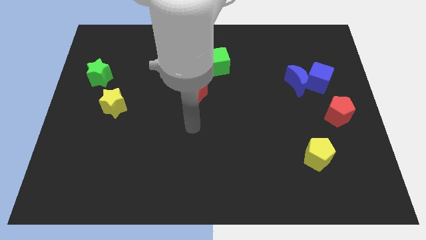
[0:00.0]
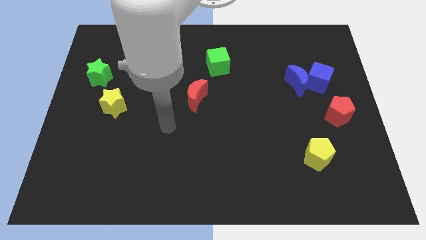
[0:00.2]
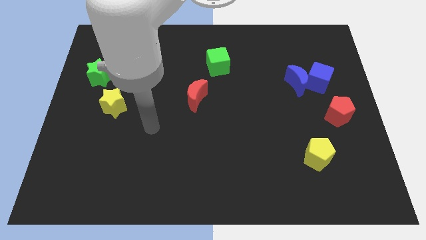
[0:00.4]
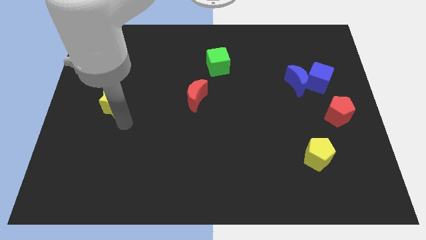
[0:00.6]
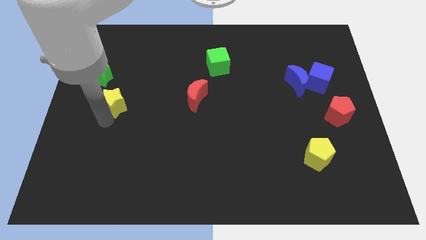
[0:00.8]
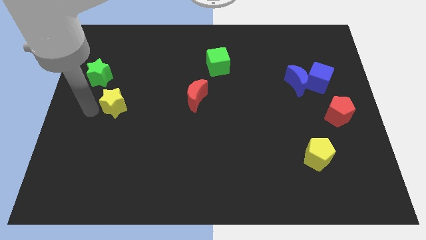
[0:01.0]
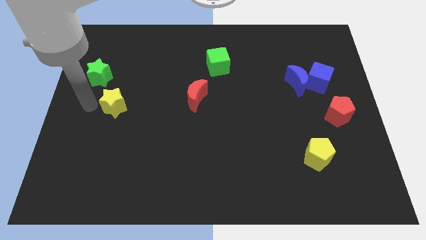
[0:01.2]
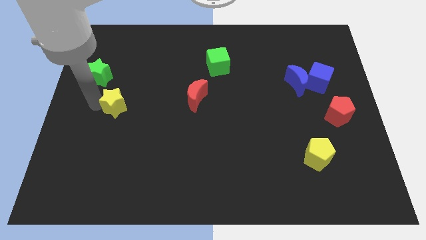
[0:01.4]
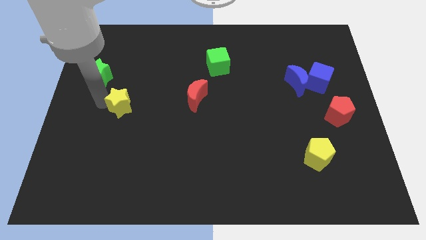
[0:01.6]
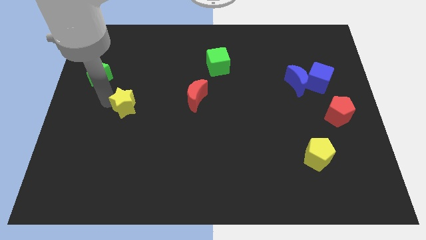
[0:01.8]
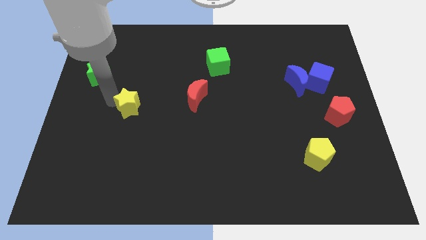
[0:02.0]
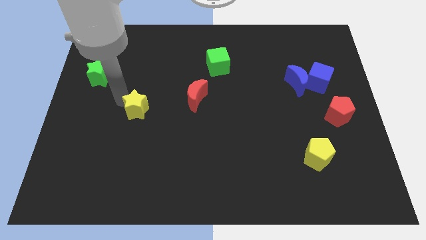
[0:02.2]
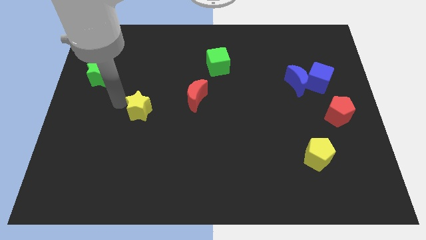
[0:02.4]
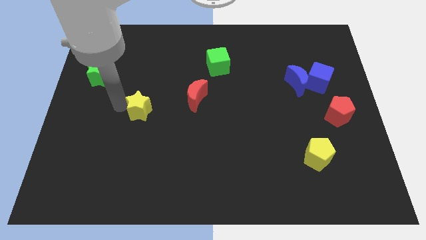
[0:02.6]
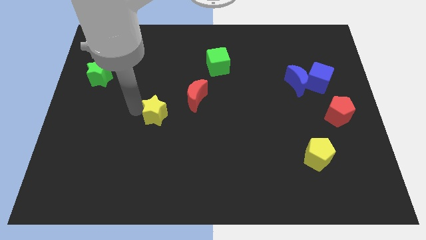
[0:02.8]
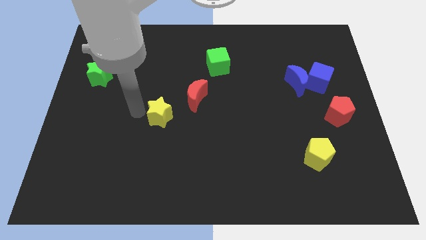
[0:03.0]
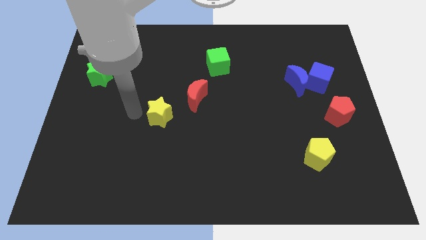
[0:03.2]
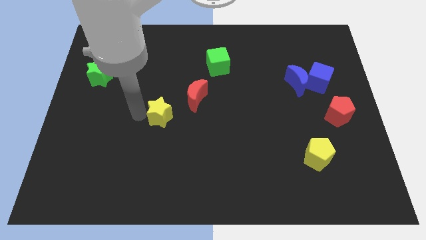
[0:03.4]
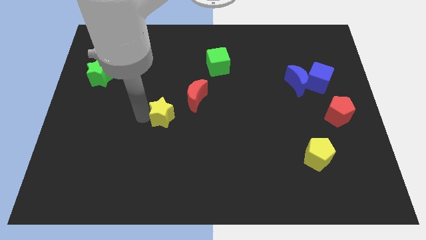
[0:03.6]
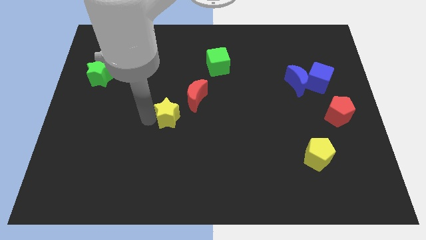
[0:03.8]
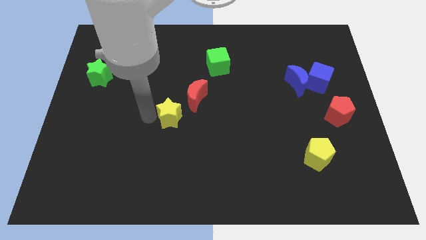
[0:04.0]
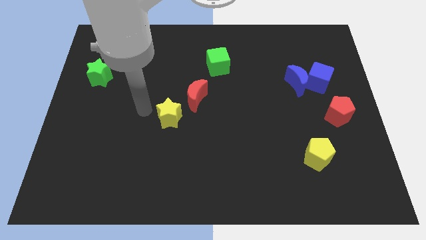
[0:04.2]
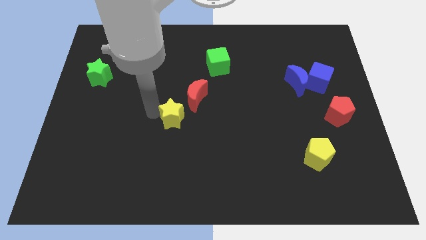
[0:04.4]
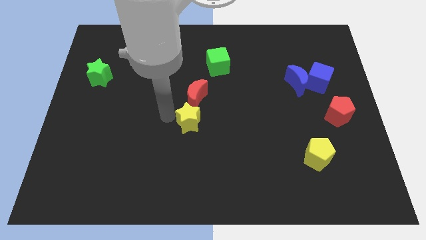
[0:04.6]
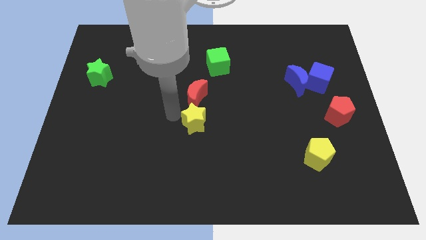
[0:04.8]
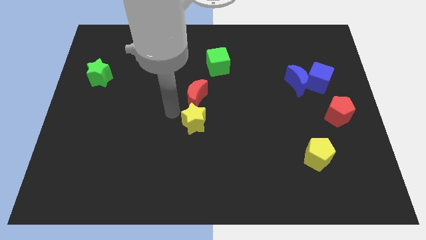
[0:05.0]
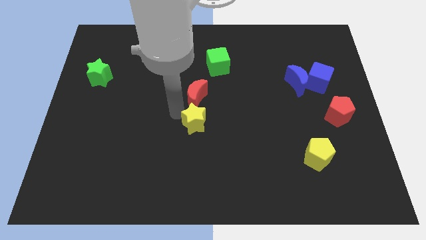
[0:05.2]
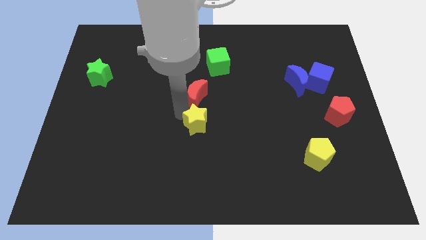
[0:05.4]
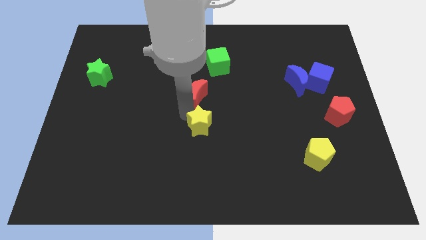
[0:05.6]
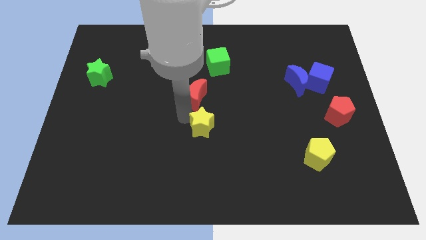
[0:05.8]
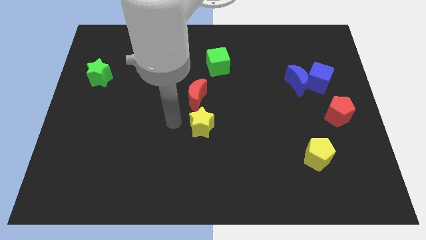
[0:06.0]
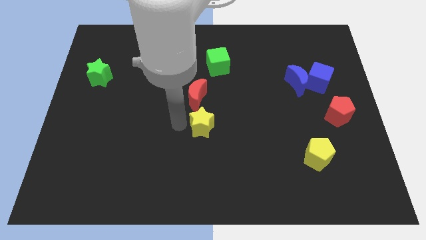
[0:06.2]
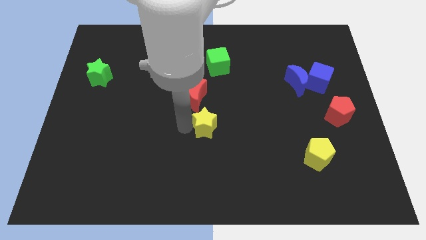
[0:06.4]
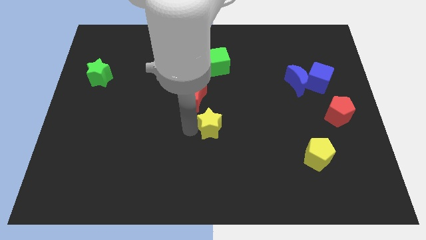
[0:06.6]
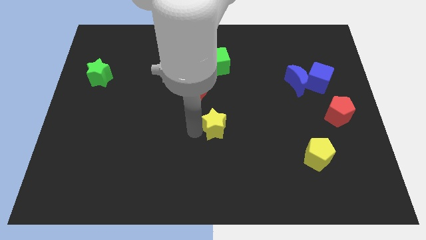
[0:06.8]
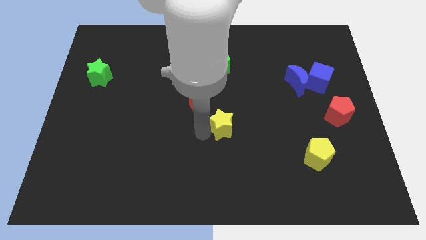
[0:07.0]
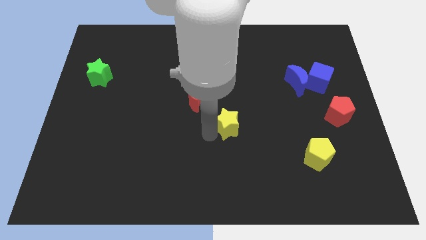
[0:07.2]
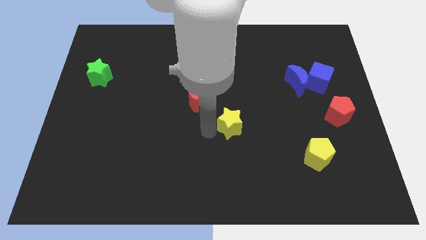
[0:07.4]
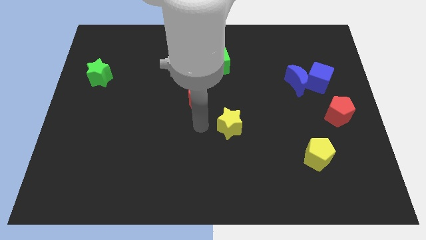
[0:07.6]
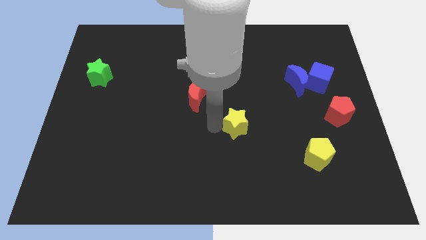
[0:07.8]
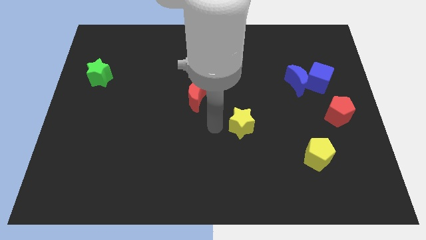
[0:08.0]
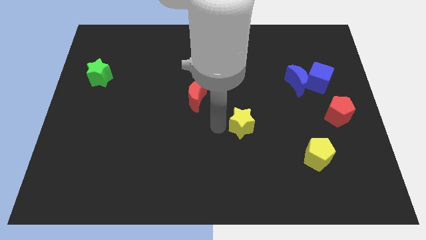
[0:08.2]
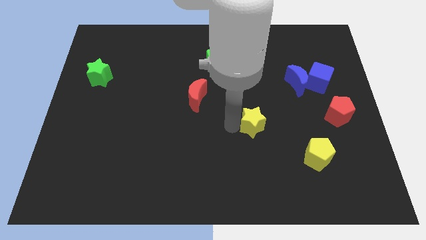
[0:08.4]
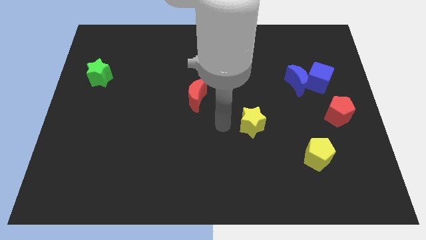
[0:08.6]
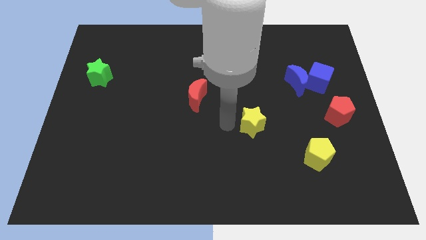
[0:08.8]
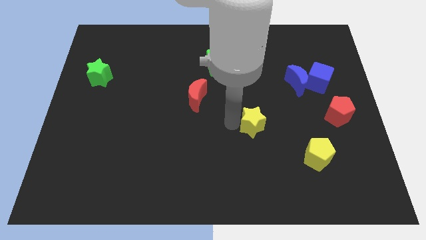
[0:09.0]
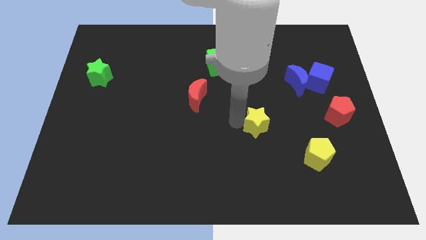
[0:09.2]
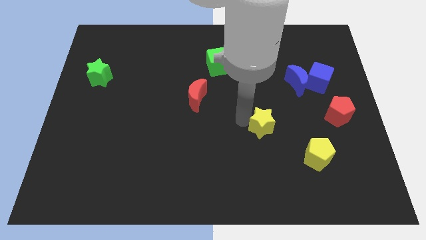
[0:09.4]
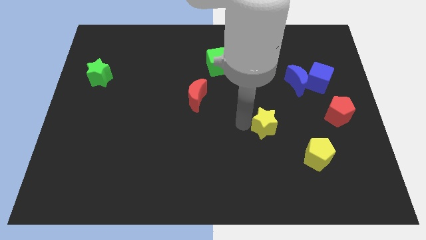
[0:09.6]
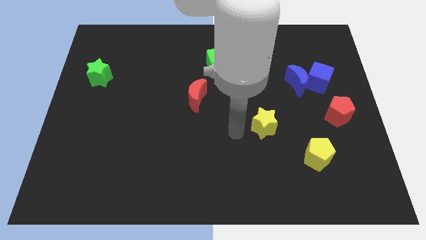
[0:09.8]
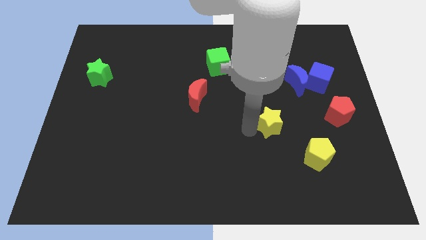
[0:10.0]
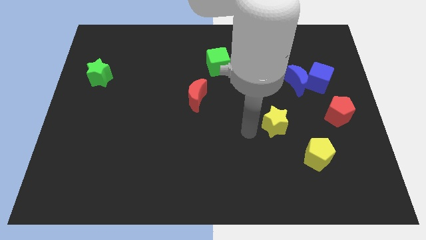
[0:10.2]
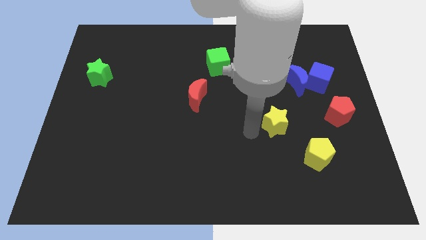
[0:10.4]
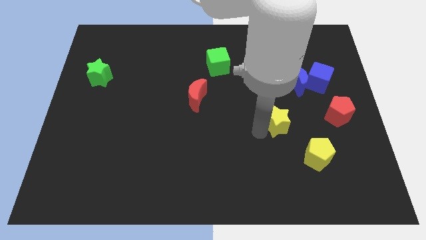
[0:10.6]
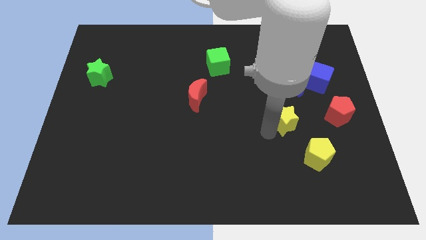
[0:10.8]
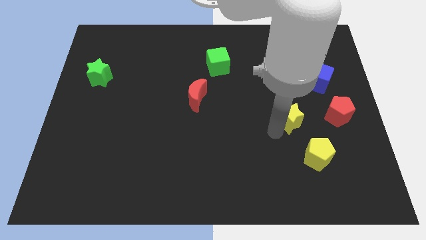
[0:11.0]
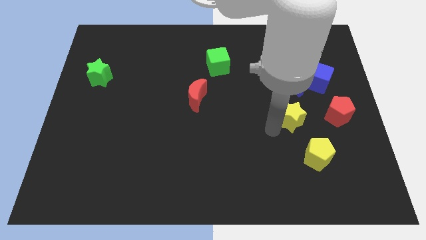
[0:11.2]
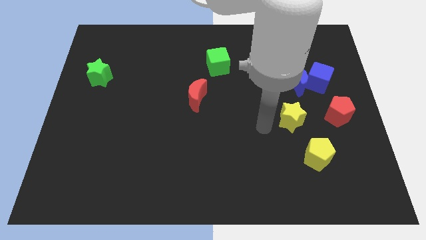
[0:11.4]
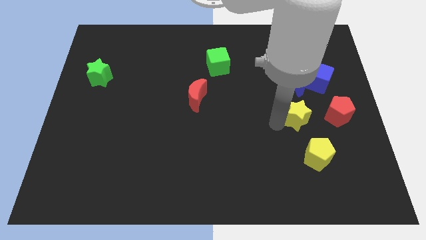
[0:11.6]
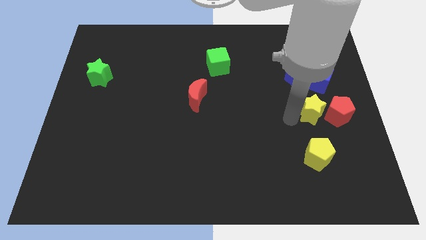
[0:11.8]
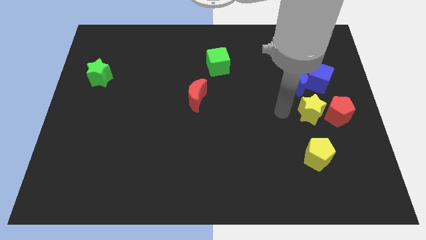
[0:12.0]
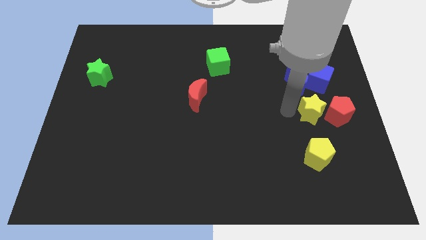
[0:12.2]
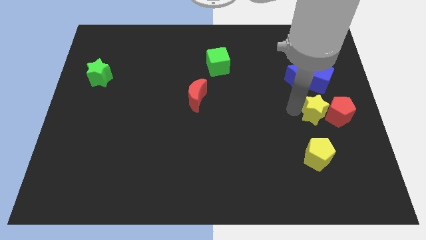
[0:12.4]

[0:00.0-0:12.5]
slide the yellow star close to the red pentagon
